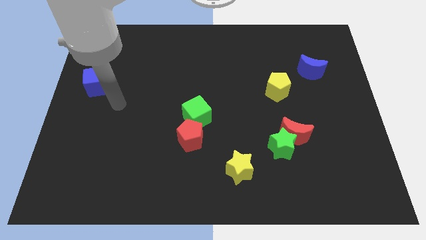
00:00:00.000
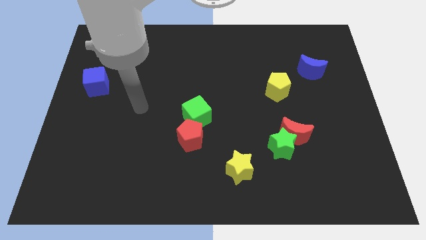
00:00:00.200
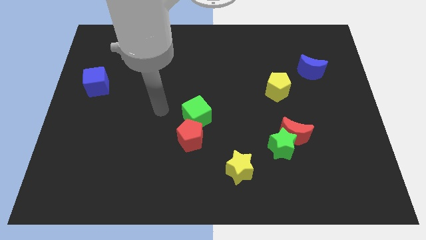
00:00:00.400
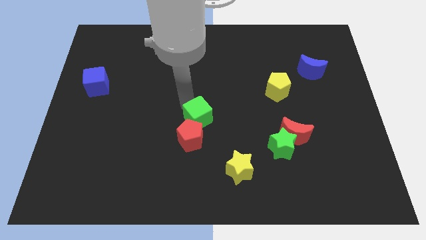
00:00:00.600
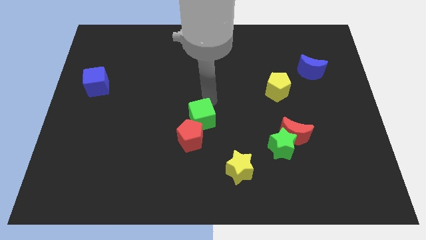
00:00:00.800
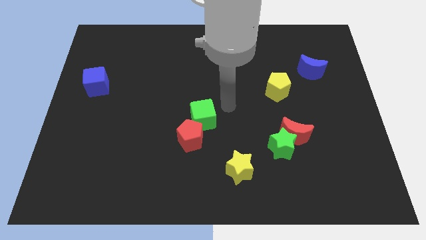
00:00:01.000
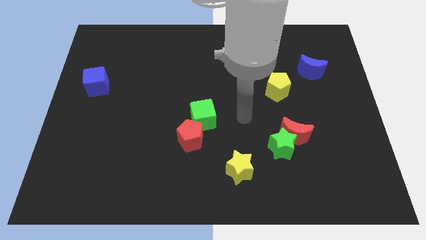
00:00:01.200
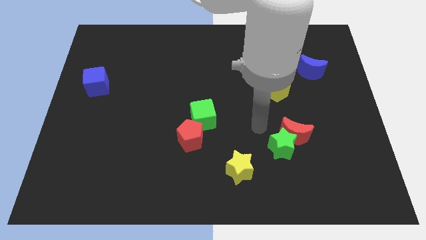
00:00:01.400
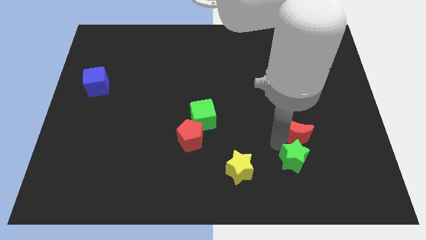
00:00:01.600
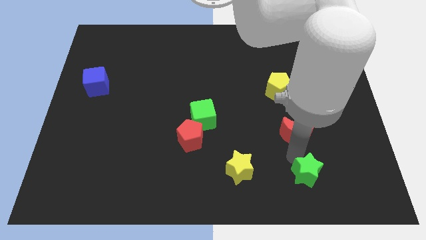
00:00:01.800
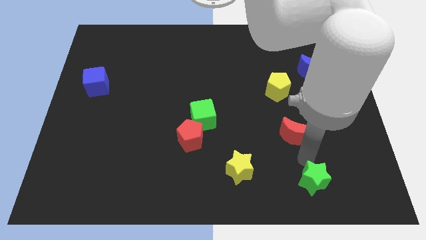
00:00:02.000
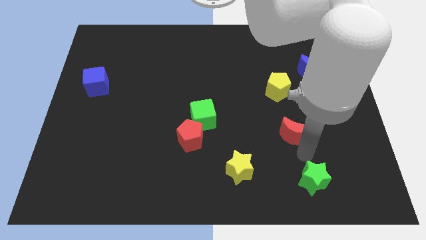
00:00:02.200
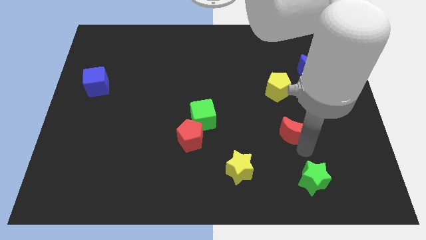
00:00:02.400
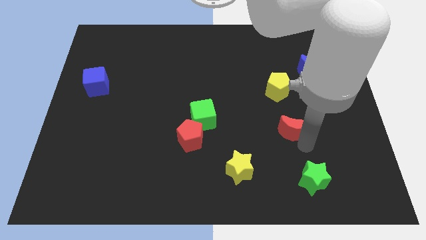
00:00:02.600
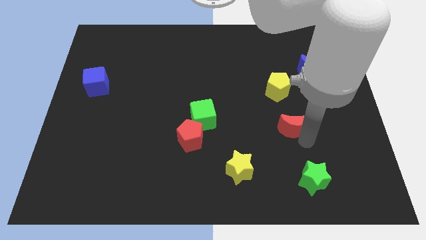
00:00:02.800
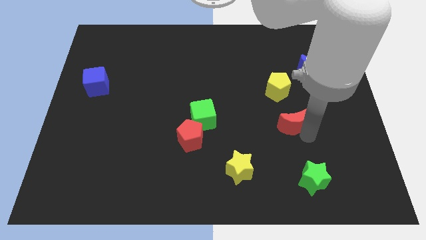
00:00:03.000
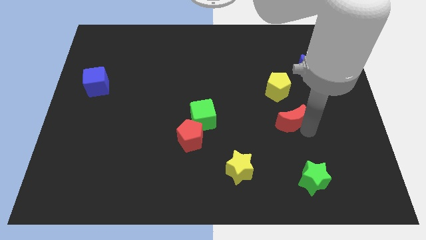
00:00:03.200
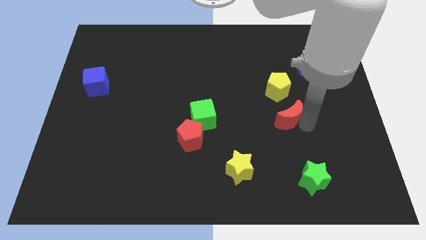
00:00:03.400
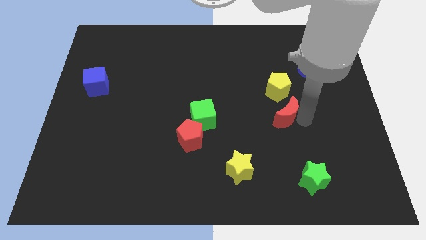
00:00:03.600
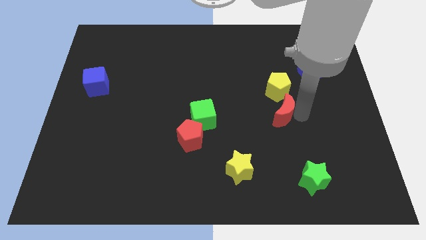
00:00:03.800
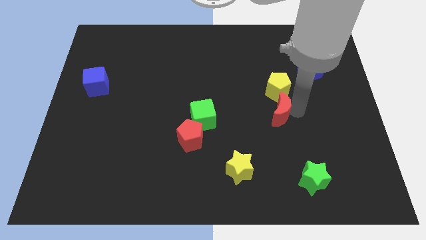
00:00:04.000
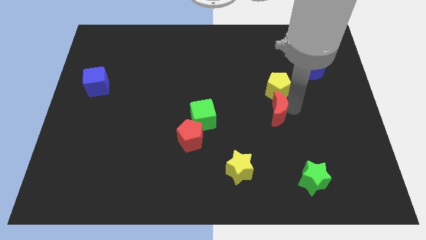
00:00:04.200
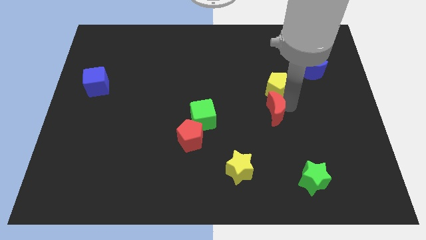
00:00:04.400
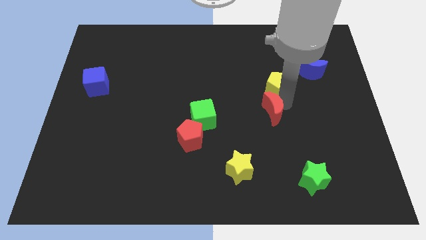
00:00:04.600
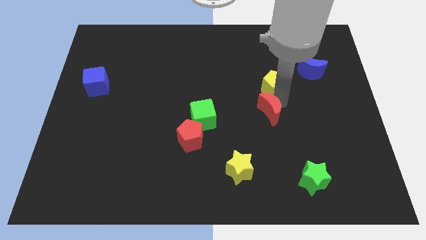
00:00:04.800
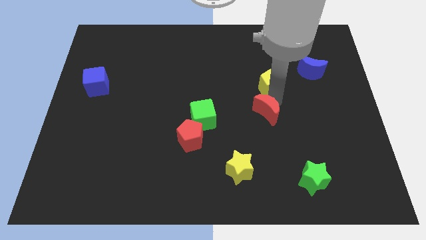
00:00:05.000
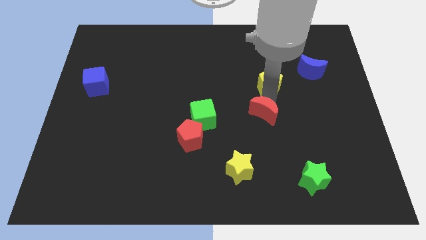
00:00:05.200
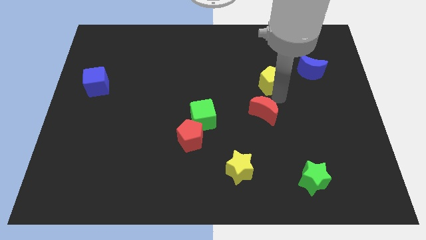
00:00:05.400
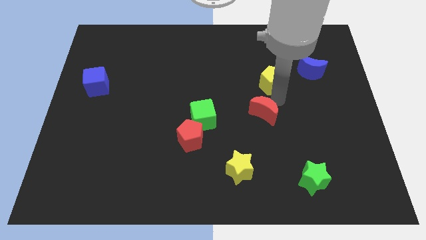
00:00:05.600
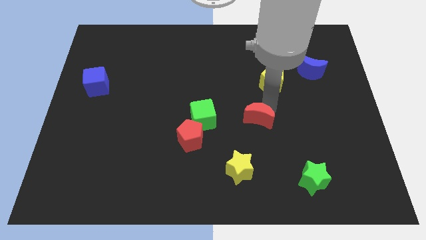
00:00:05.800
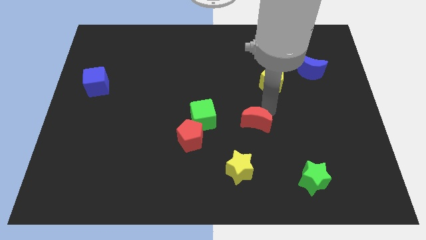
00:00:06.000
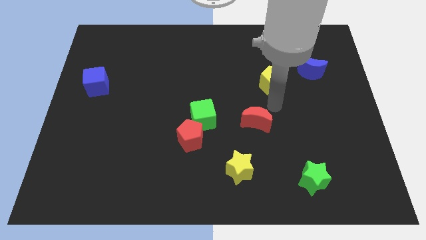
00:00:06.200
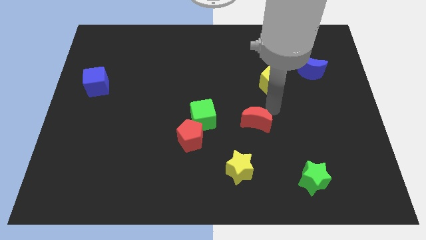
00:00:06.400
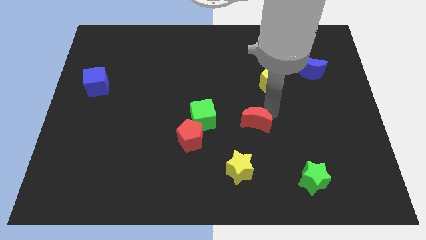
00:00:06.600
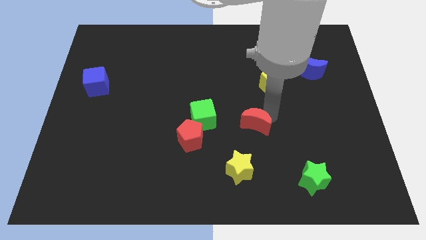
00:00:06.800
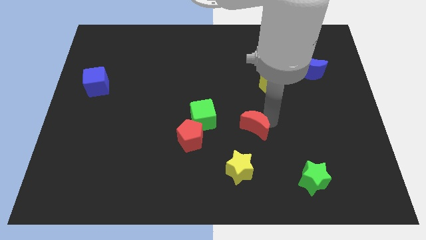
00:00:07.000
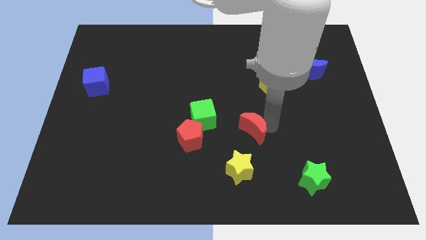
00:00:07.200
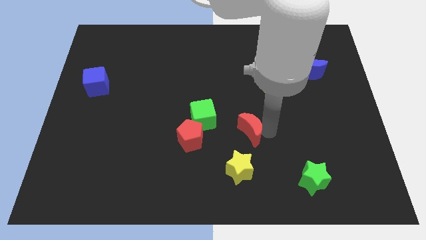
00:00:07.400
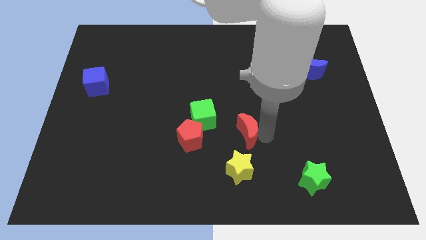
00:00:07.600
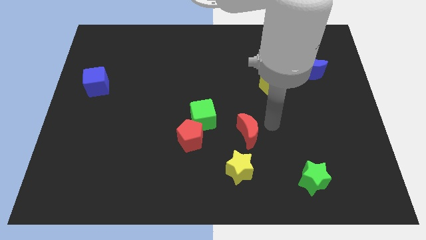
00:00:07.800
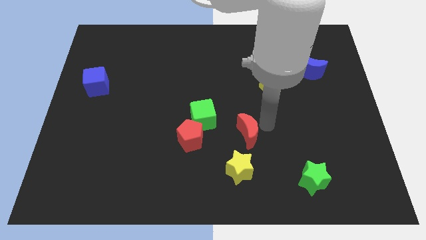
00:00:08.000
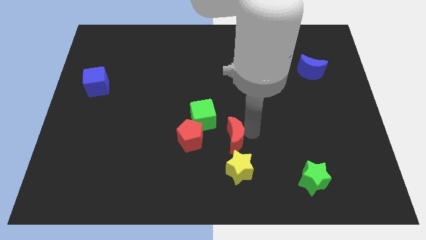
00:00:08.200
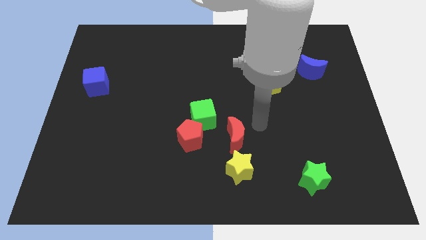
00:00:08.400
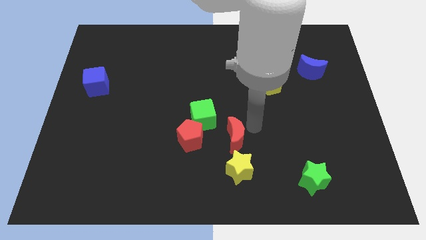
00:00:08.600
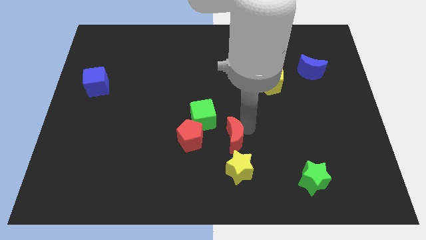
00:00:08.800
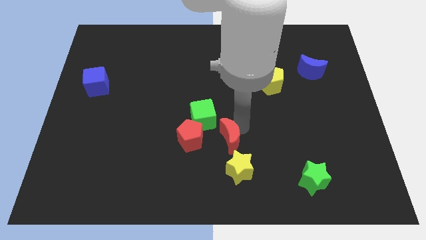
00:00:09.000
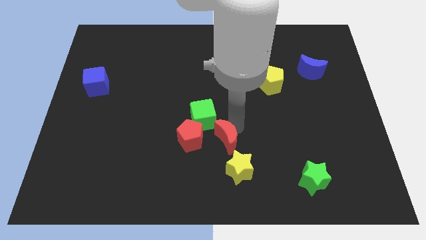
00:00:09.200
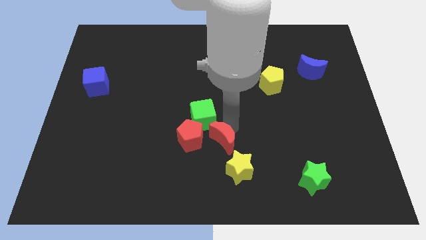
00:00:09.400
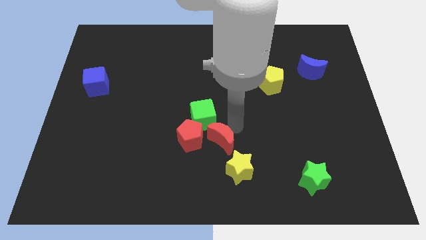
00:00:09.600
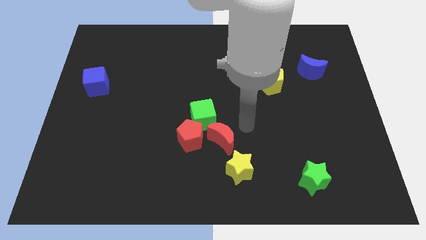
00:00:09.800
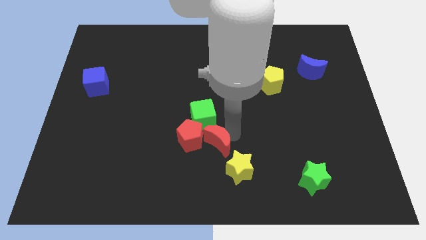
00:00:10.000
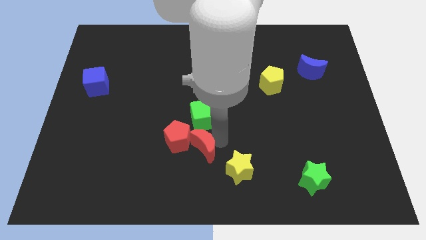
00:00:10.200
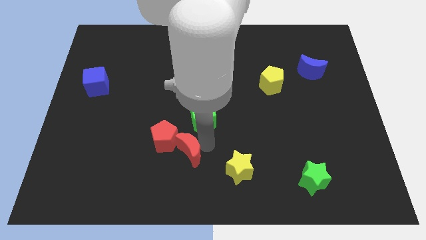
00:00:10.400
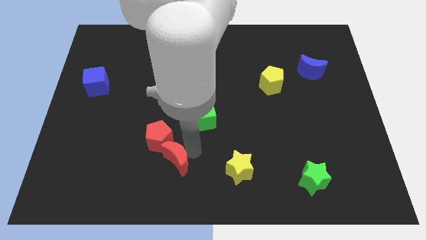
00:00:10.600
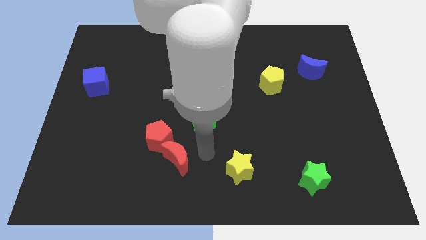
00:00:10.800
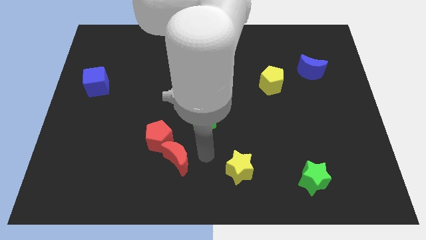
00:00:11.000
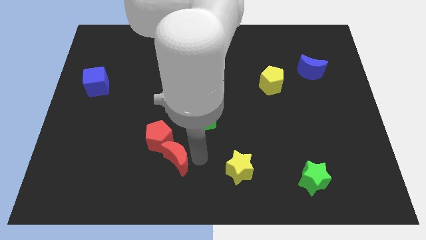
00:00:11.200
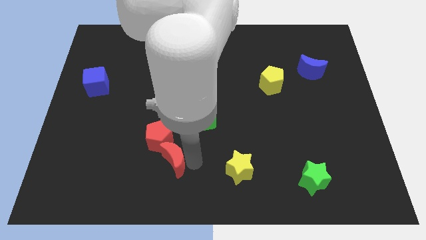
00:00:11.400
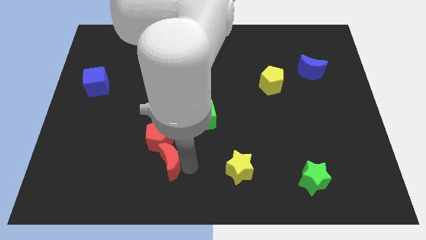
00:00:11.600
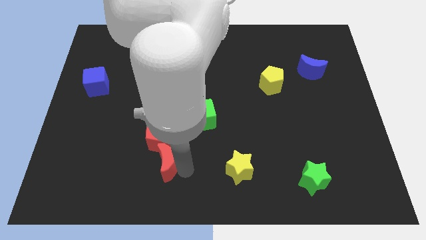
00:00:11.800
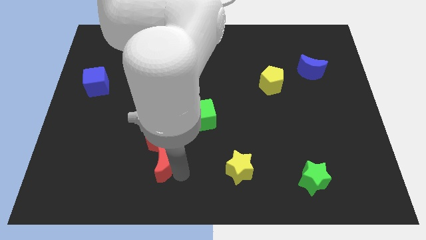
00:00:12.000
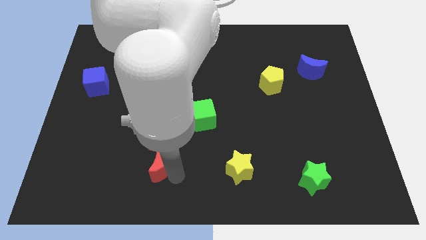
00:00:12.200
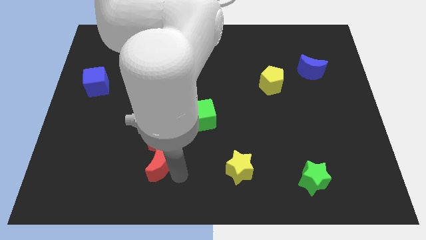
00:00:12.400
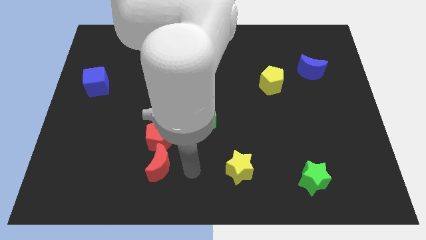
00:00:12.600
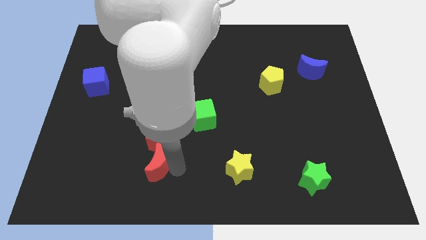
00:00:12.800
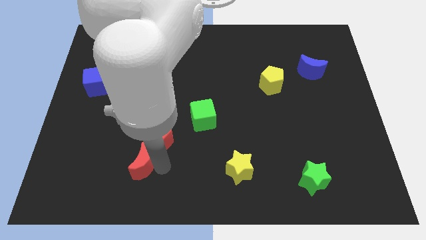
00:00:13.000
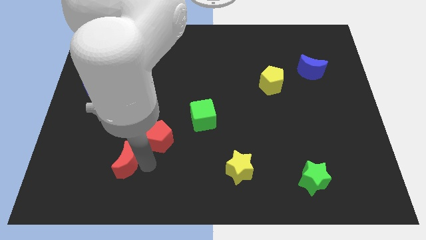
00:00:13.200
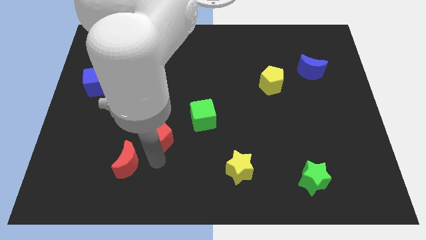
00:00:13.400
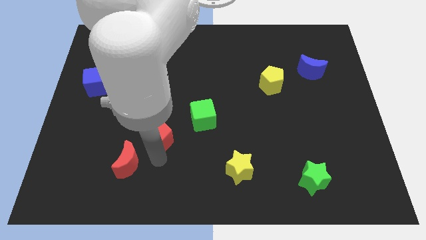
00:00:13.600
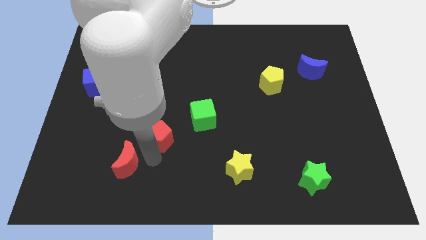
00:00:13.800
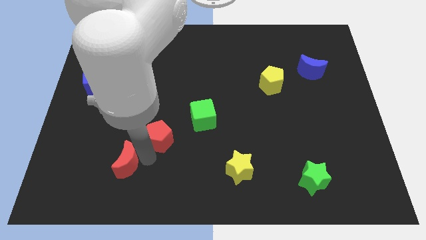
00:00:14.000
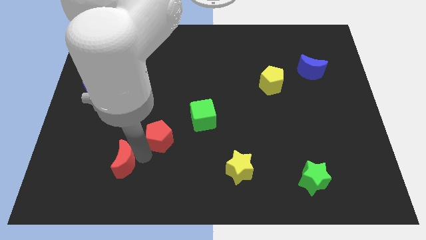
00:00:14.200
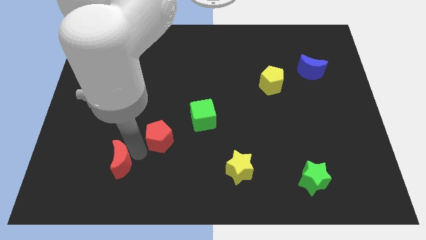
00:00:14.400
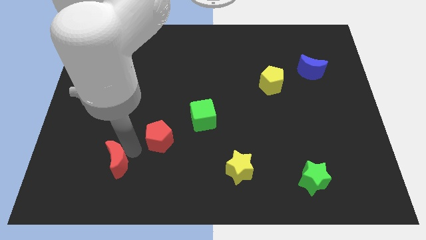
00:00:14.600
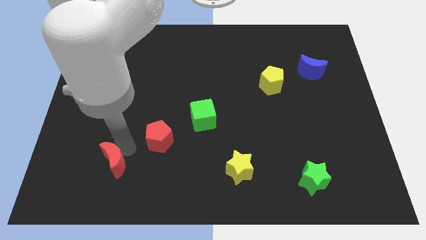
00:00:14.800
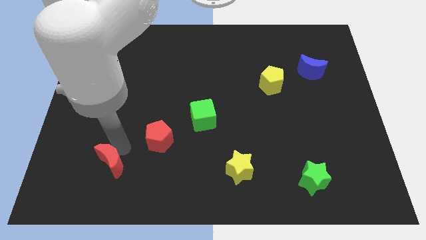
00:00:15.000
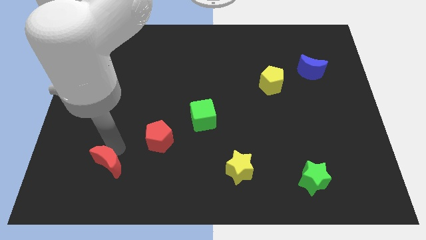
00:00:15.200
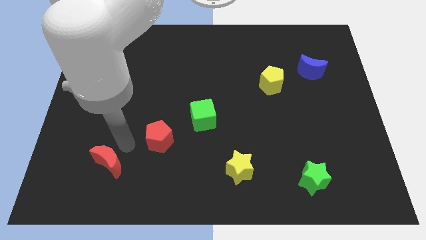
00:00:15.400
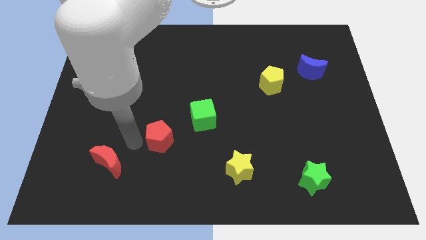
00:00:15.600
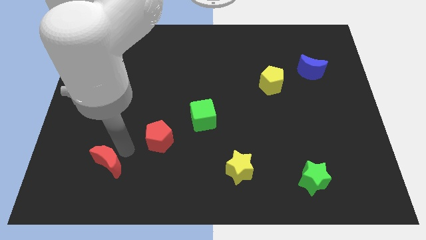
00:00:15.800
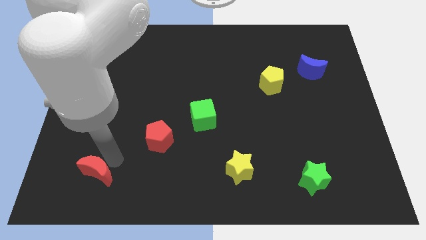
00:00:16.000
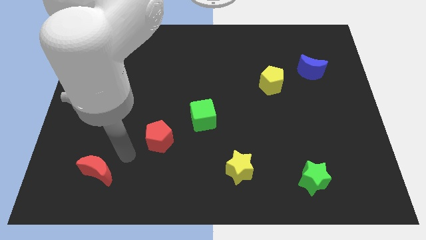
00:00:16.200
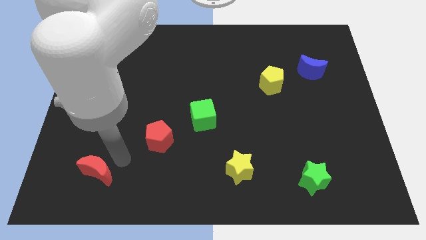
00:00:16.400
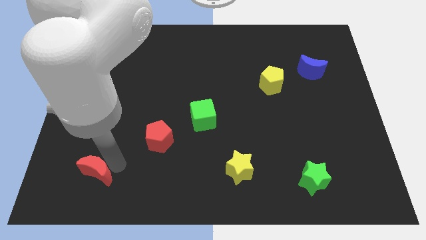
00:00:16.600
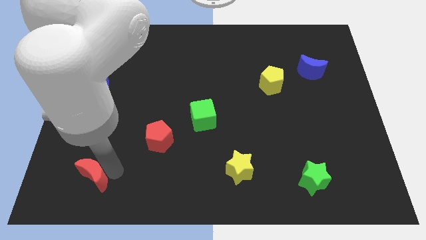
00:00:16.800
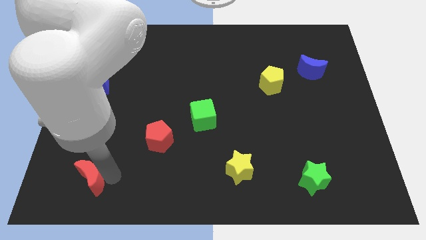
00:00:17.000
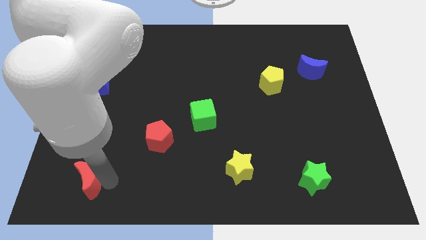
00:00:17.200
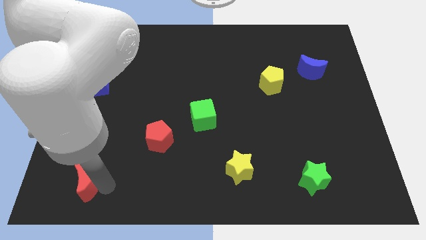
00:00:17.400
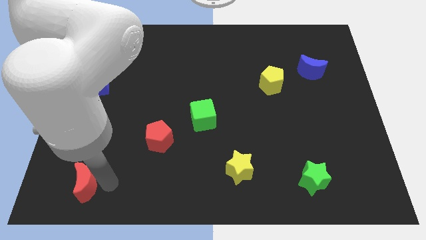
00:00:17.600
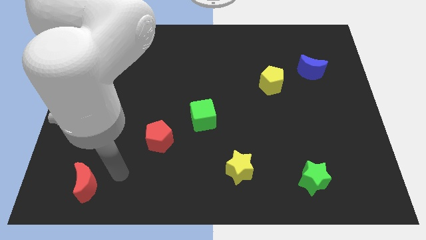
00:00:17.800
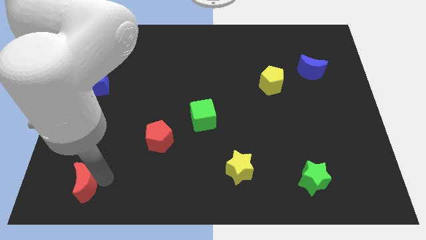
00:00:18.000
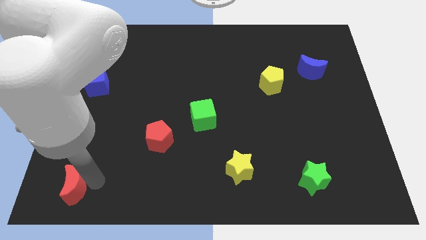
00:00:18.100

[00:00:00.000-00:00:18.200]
slide the red moon to the bottom left of the board
